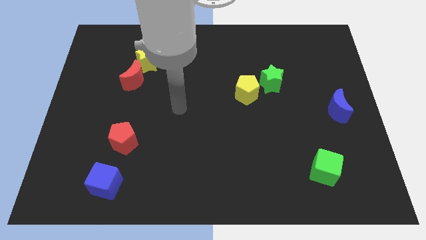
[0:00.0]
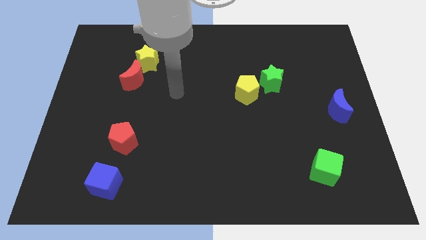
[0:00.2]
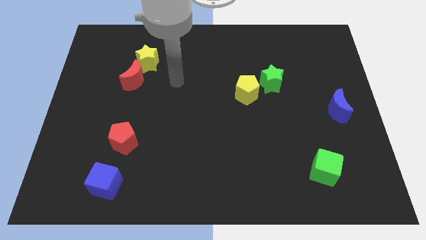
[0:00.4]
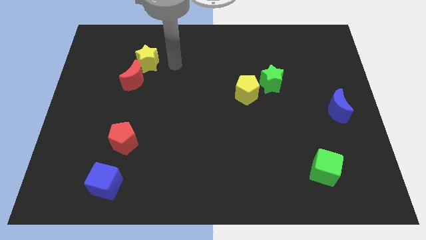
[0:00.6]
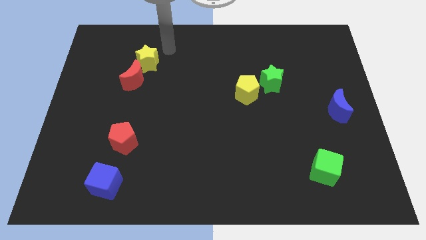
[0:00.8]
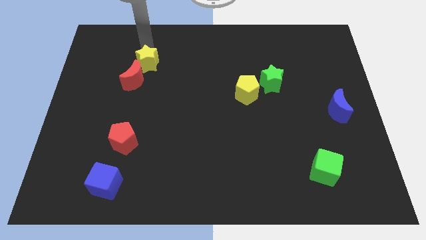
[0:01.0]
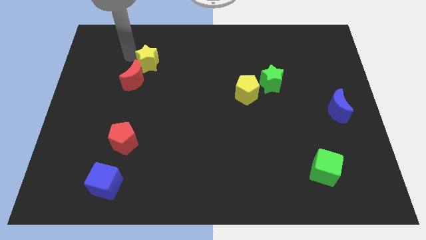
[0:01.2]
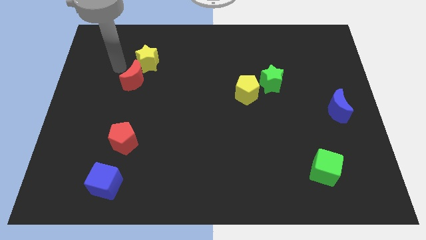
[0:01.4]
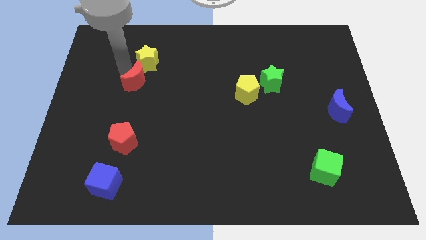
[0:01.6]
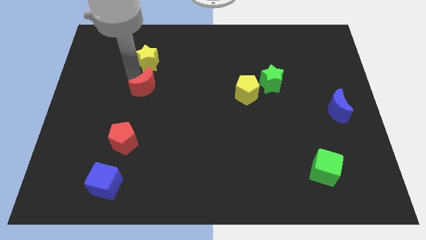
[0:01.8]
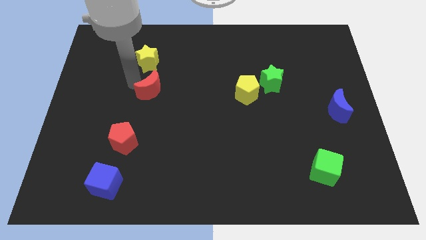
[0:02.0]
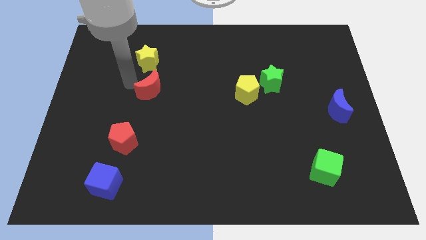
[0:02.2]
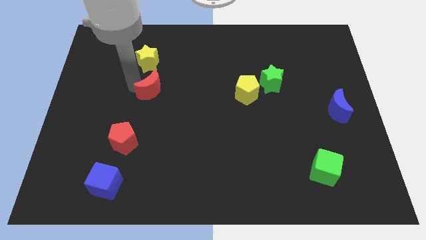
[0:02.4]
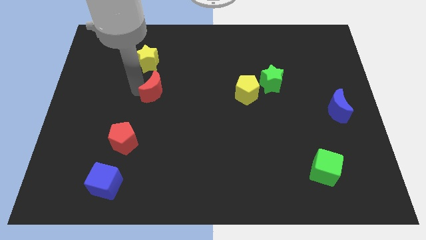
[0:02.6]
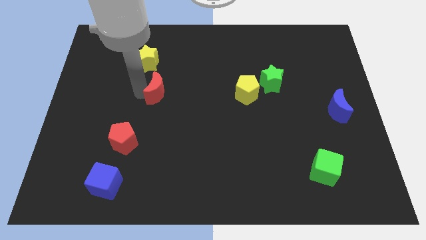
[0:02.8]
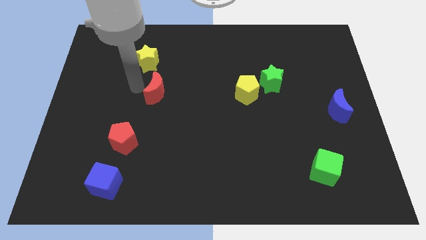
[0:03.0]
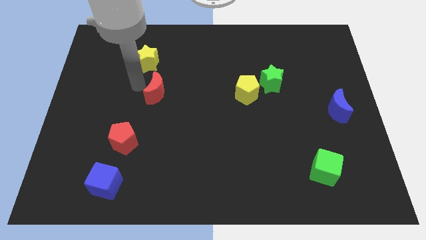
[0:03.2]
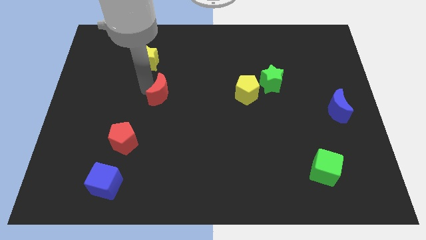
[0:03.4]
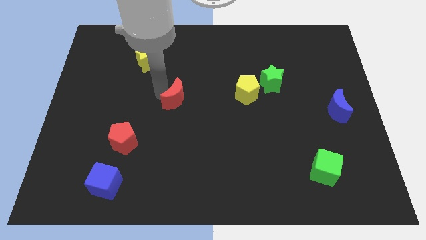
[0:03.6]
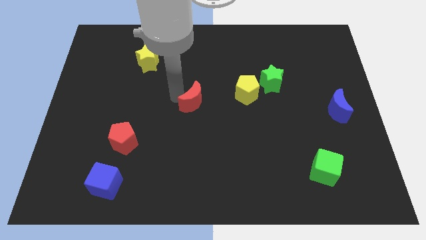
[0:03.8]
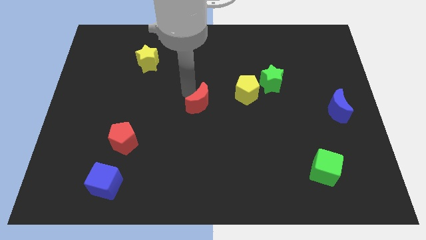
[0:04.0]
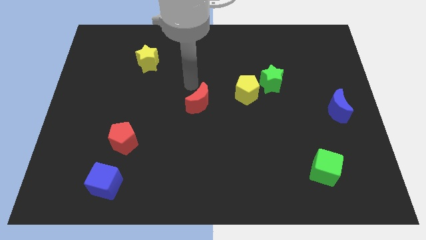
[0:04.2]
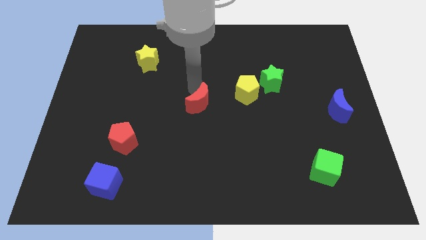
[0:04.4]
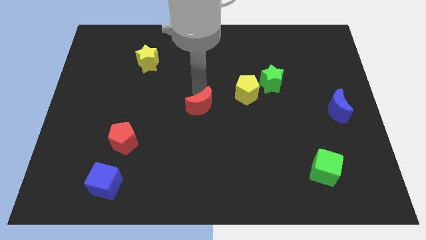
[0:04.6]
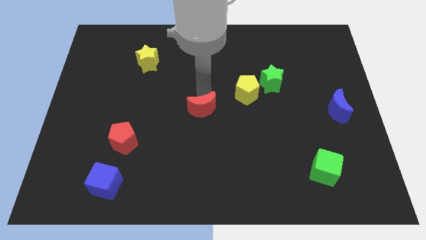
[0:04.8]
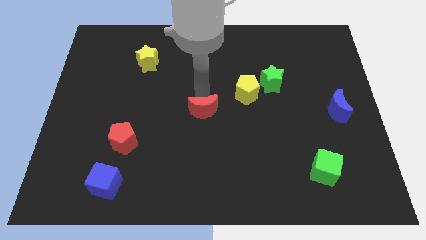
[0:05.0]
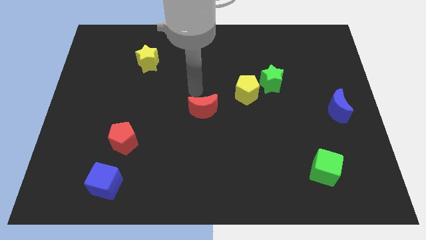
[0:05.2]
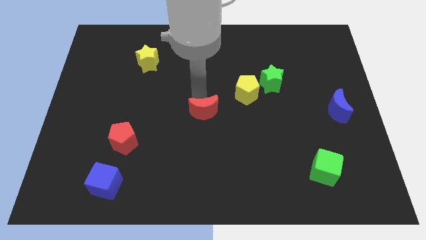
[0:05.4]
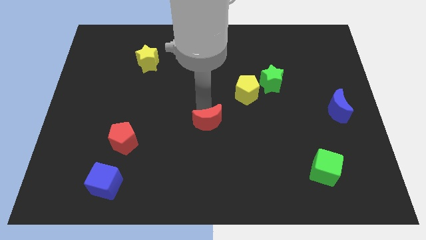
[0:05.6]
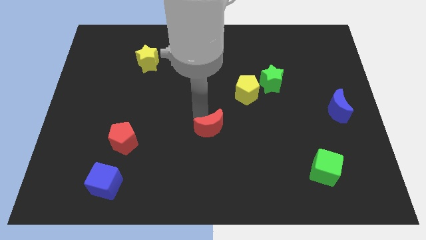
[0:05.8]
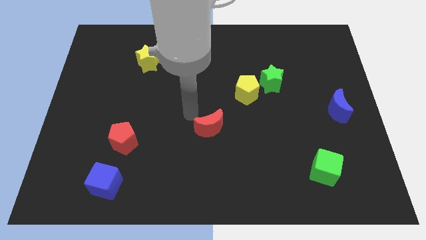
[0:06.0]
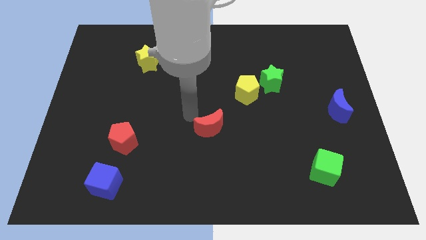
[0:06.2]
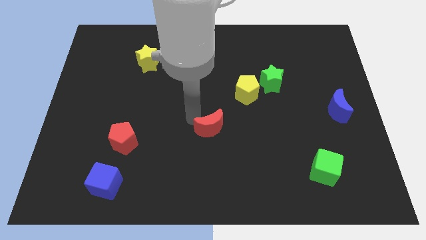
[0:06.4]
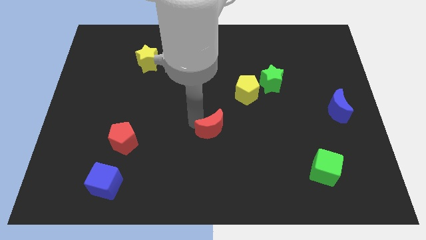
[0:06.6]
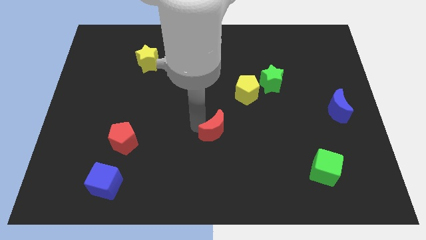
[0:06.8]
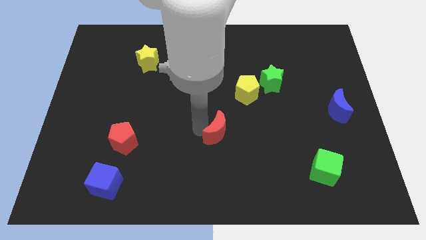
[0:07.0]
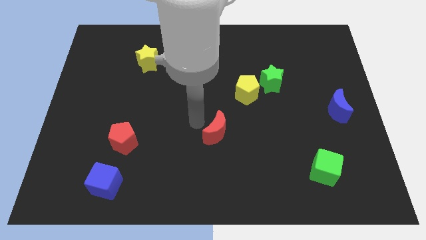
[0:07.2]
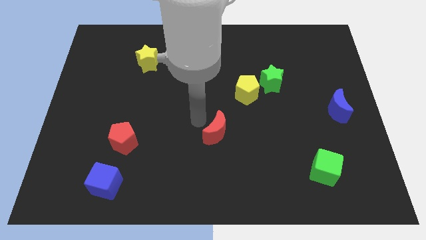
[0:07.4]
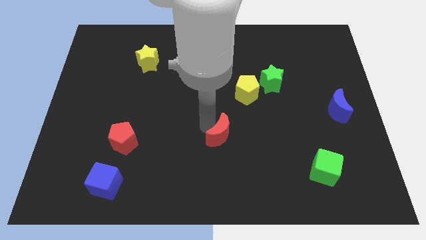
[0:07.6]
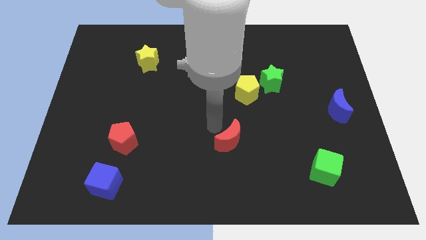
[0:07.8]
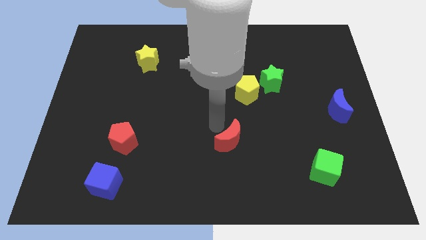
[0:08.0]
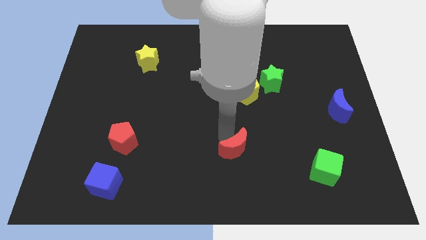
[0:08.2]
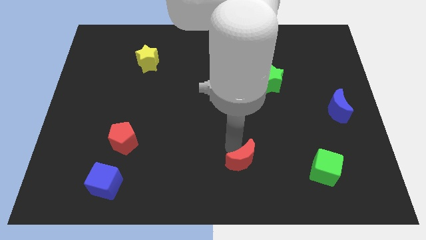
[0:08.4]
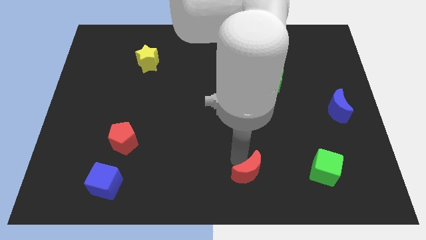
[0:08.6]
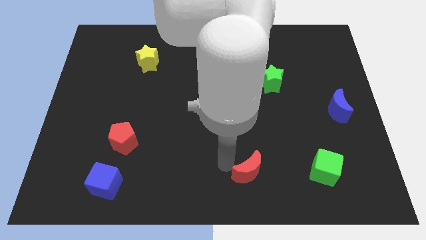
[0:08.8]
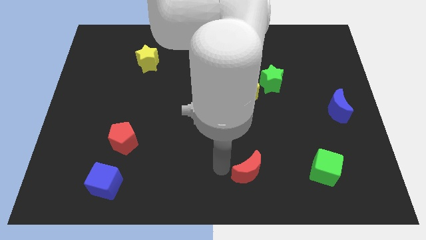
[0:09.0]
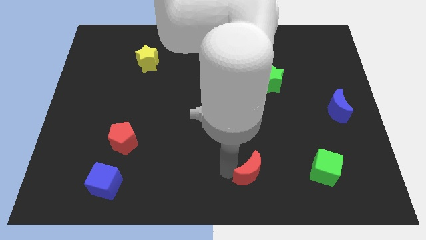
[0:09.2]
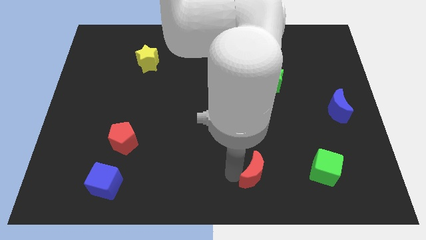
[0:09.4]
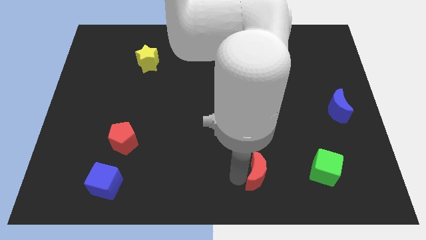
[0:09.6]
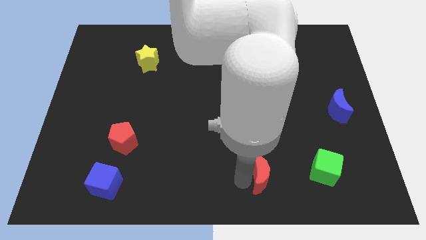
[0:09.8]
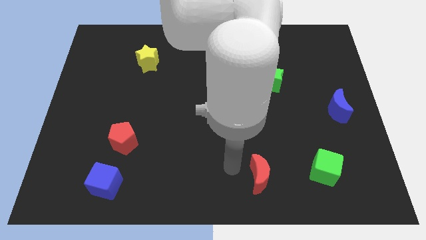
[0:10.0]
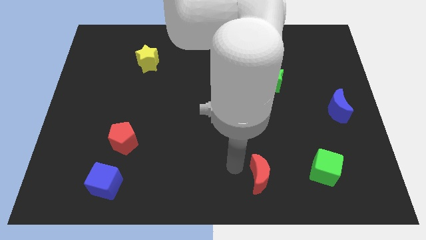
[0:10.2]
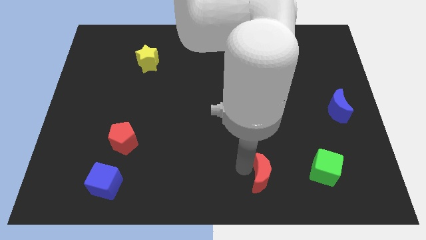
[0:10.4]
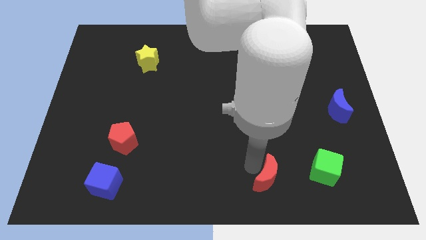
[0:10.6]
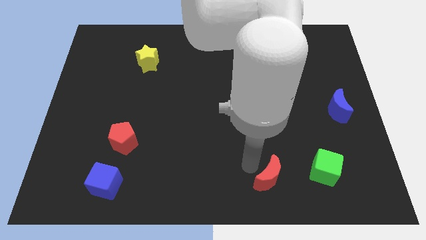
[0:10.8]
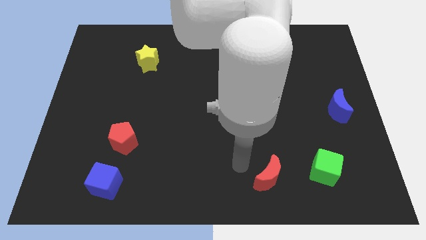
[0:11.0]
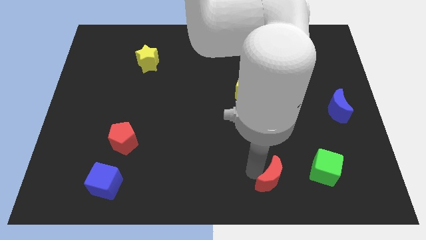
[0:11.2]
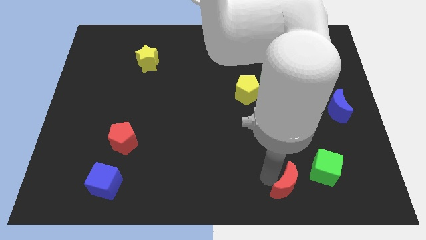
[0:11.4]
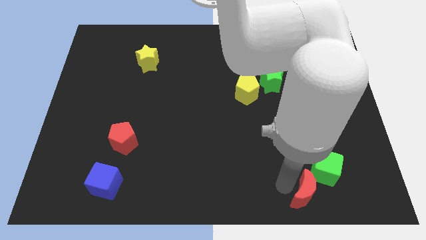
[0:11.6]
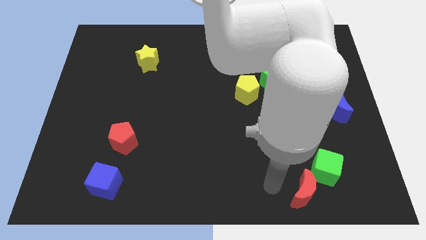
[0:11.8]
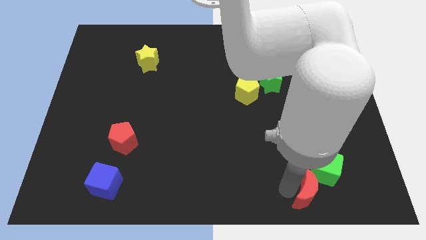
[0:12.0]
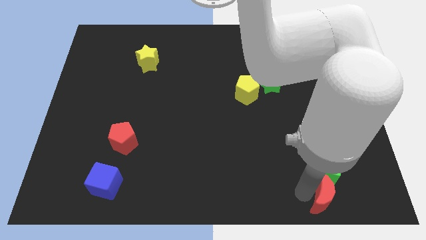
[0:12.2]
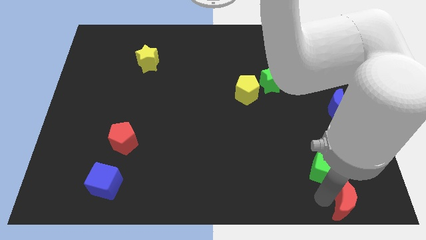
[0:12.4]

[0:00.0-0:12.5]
put the red moon to the bottom right of the board

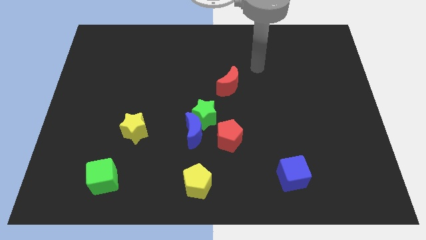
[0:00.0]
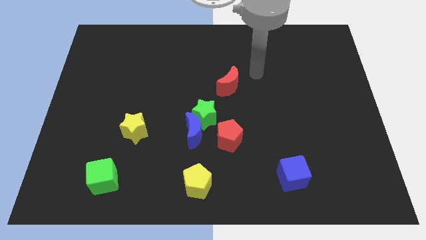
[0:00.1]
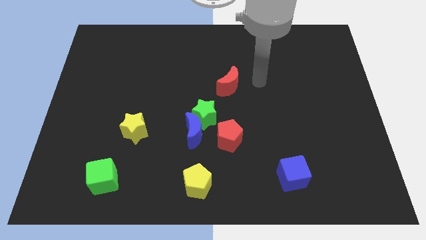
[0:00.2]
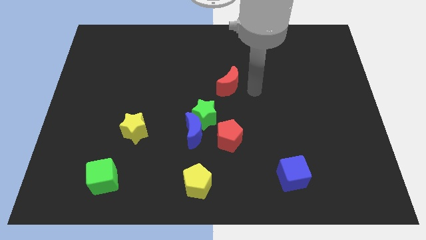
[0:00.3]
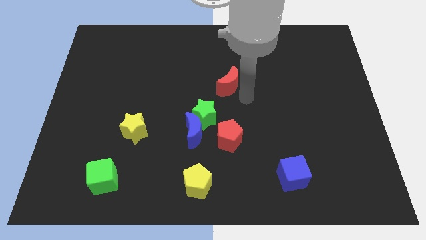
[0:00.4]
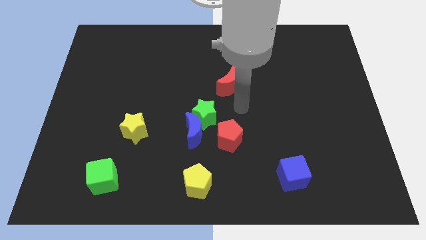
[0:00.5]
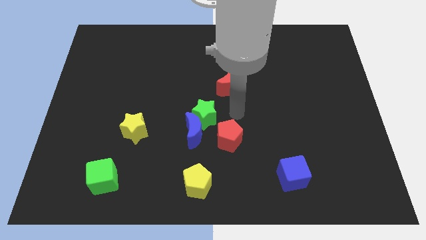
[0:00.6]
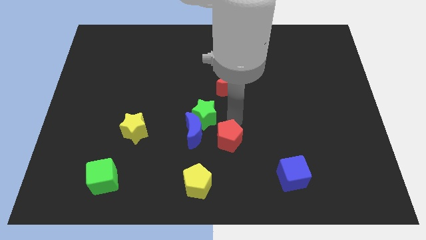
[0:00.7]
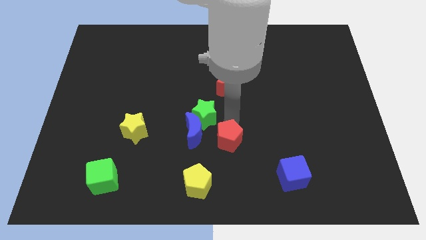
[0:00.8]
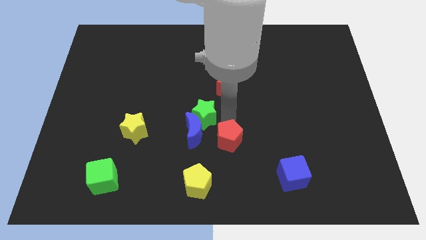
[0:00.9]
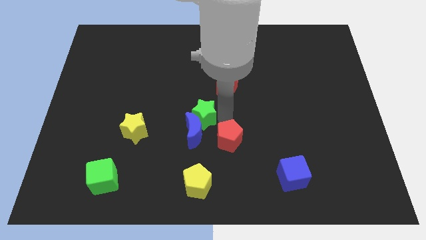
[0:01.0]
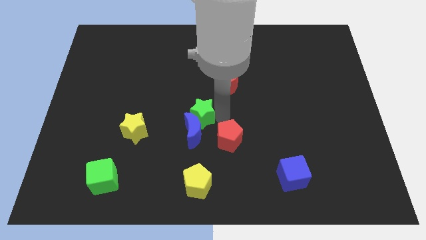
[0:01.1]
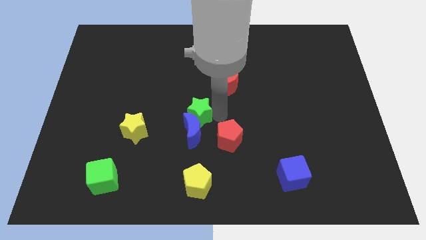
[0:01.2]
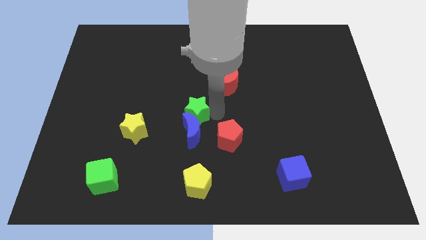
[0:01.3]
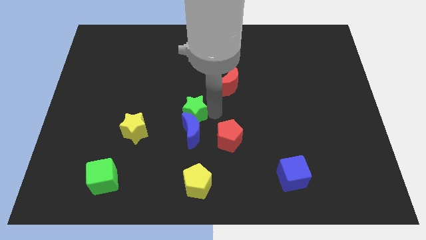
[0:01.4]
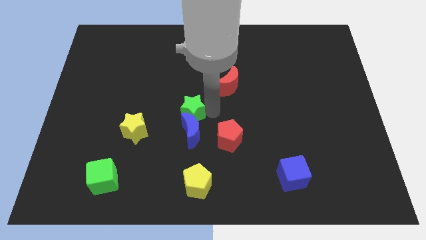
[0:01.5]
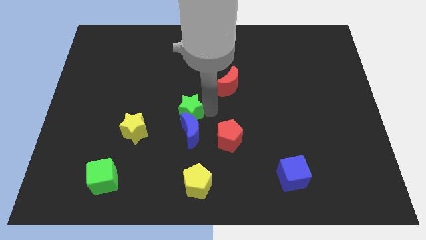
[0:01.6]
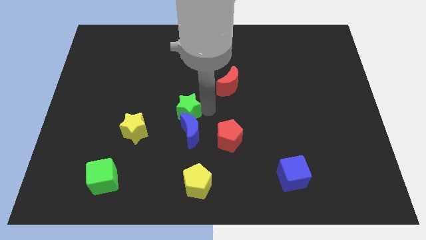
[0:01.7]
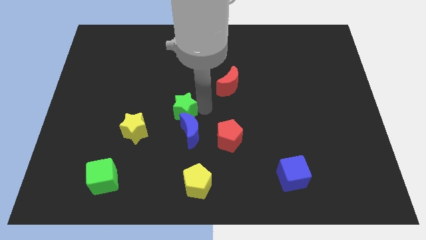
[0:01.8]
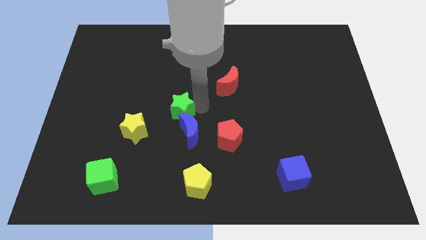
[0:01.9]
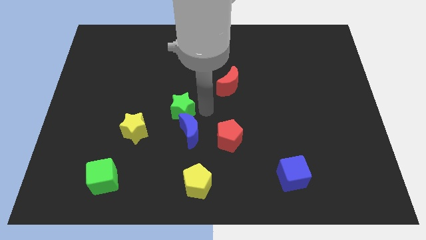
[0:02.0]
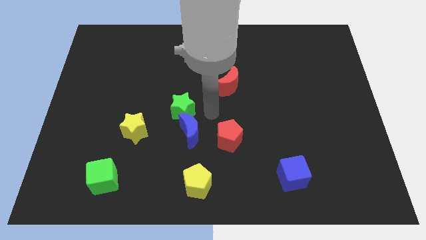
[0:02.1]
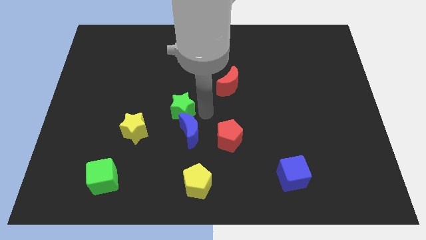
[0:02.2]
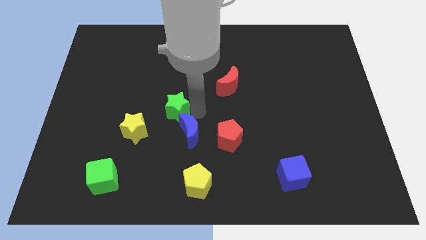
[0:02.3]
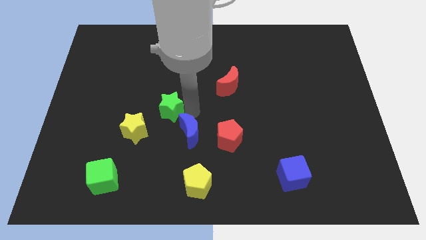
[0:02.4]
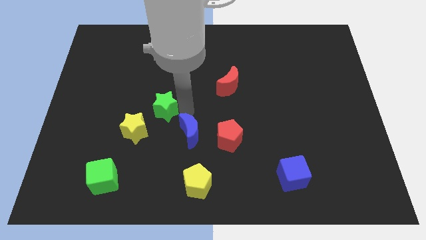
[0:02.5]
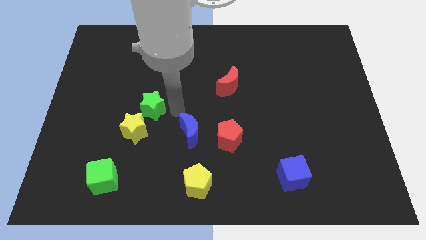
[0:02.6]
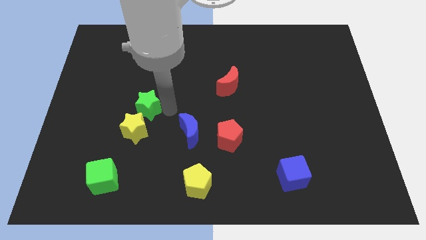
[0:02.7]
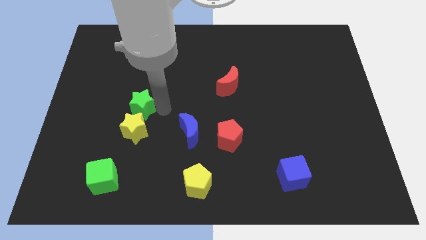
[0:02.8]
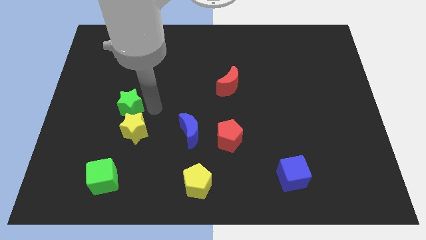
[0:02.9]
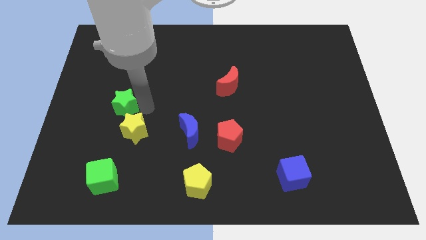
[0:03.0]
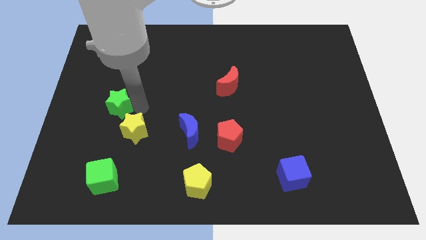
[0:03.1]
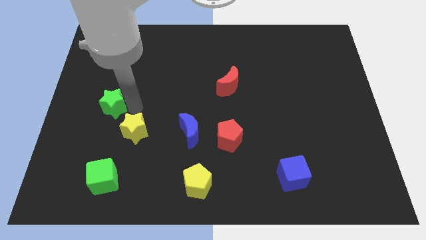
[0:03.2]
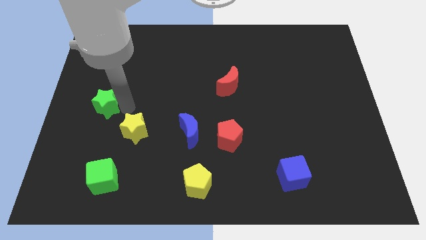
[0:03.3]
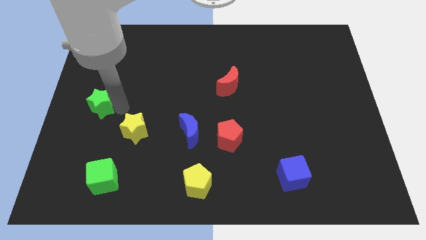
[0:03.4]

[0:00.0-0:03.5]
push the green star to the center left
